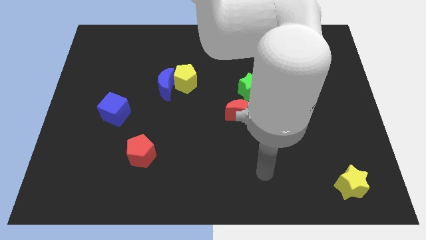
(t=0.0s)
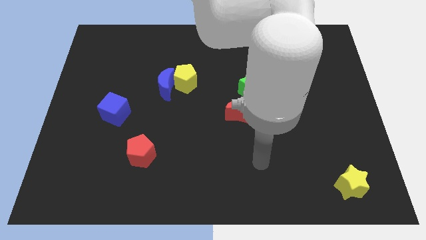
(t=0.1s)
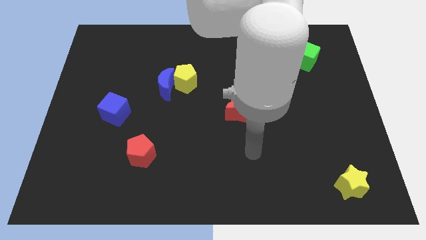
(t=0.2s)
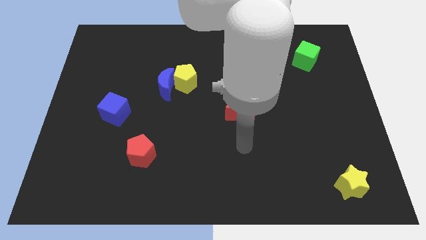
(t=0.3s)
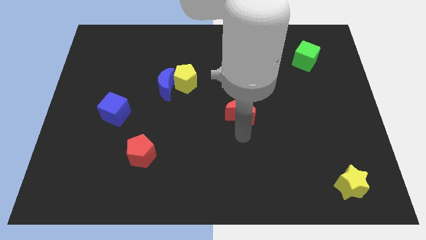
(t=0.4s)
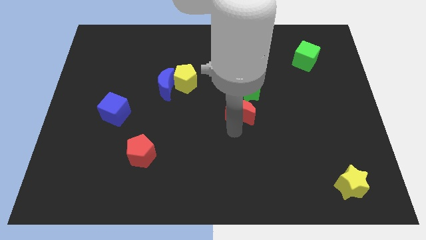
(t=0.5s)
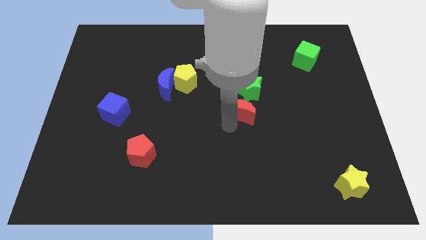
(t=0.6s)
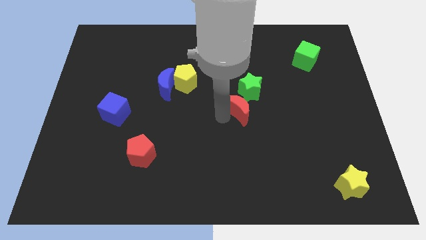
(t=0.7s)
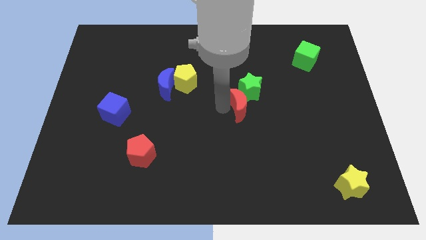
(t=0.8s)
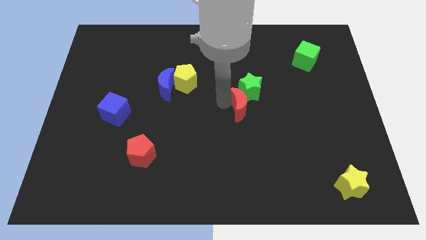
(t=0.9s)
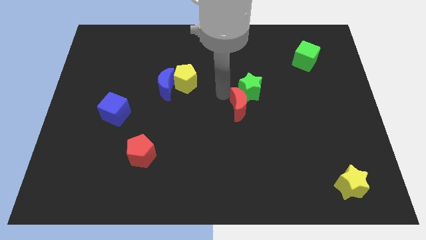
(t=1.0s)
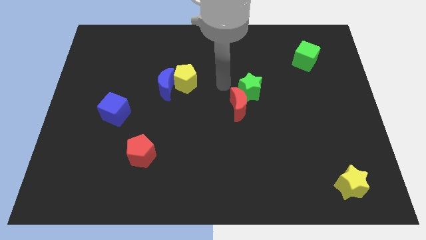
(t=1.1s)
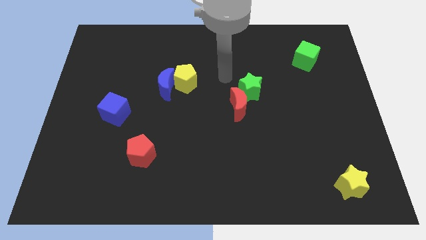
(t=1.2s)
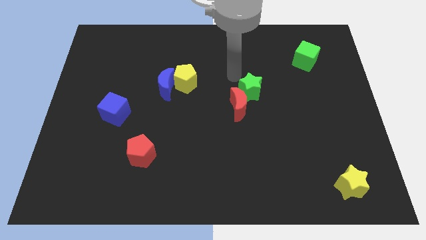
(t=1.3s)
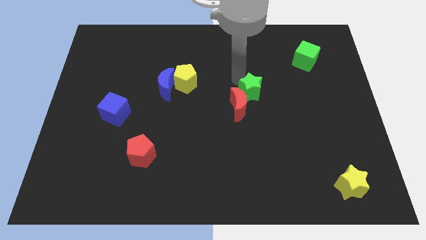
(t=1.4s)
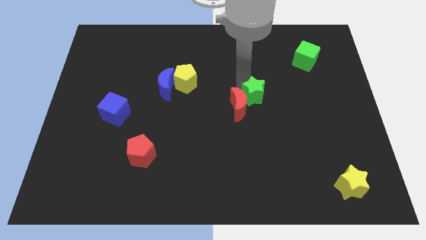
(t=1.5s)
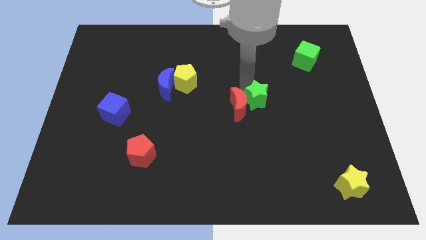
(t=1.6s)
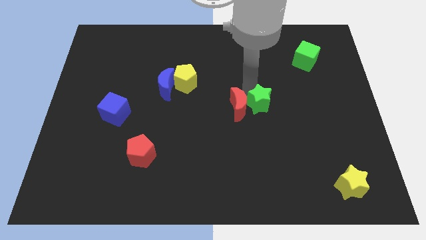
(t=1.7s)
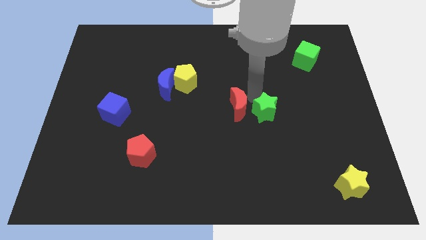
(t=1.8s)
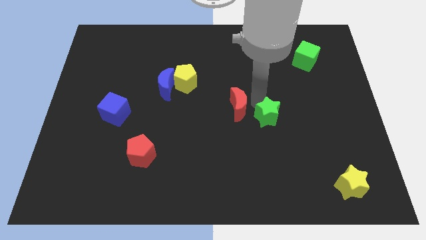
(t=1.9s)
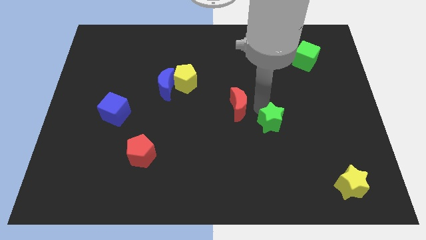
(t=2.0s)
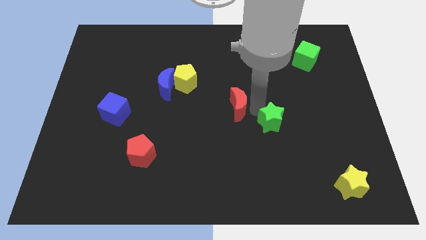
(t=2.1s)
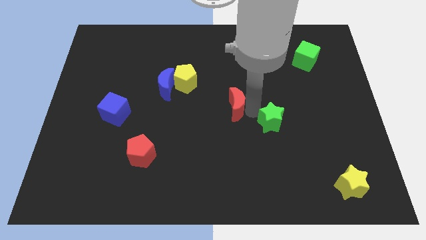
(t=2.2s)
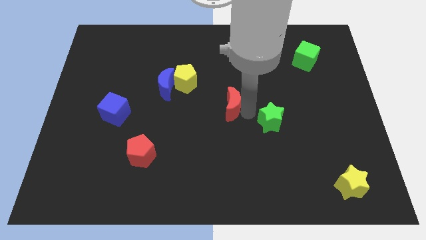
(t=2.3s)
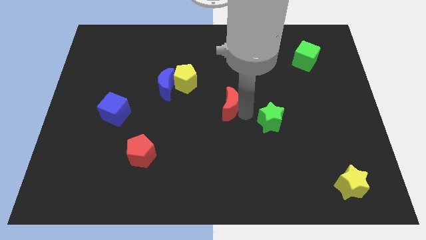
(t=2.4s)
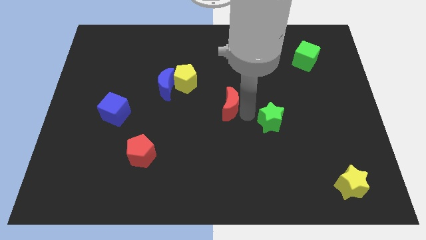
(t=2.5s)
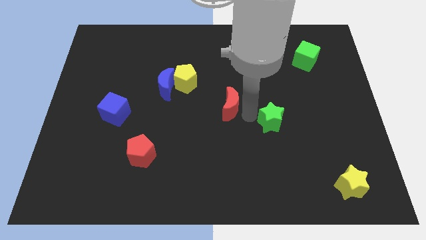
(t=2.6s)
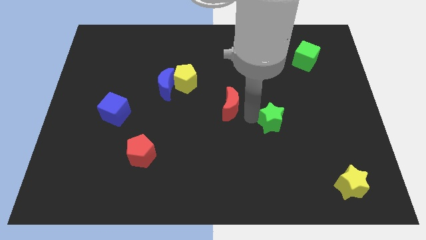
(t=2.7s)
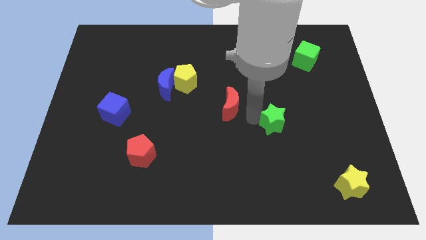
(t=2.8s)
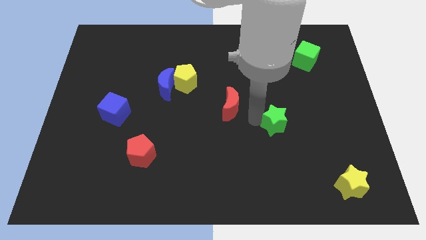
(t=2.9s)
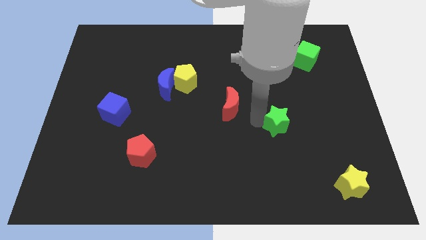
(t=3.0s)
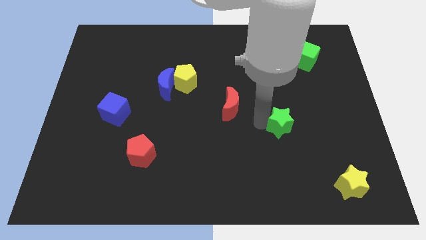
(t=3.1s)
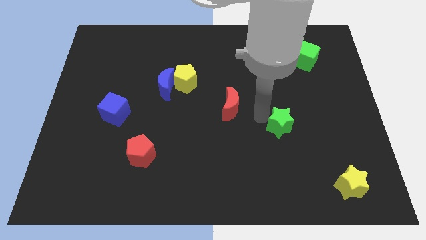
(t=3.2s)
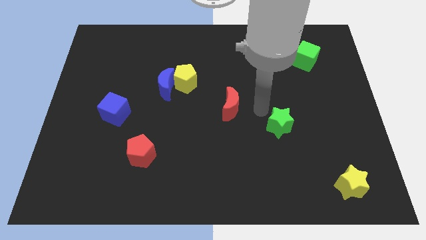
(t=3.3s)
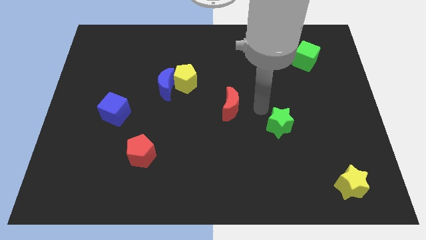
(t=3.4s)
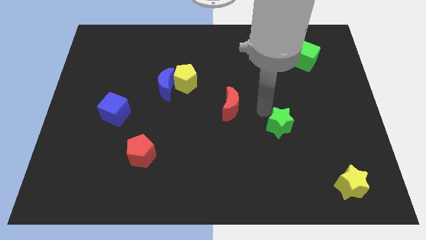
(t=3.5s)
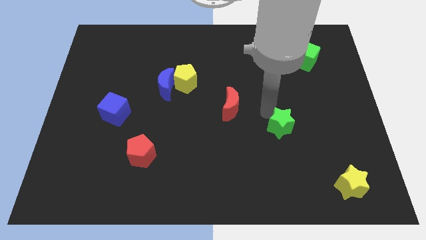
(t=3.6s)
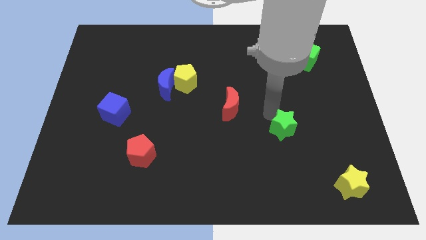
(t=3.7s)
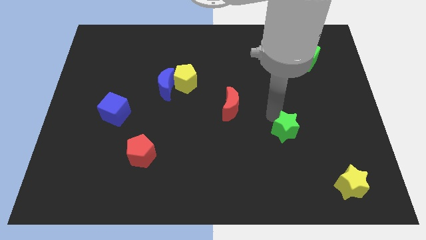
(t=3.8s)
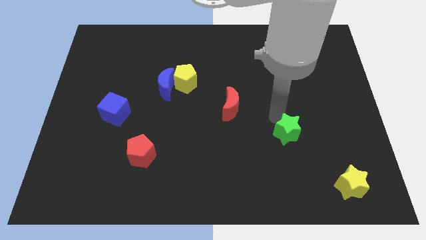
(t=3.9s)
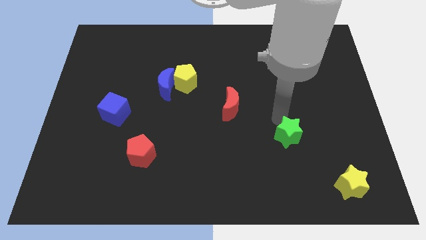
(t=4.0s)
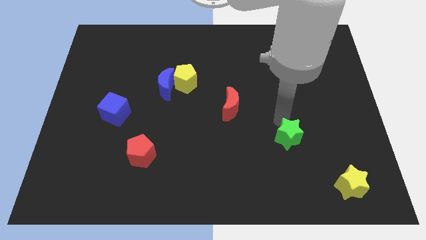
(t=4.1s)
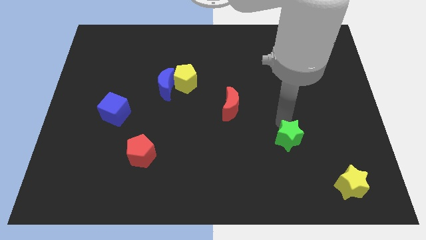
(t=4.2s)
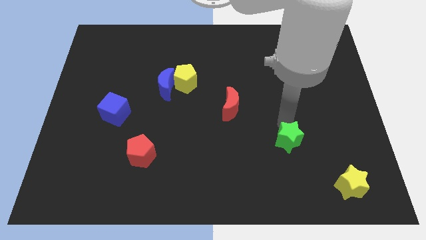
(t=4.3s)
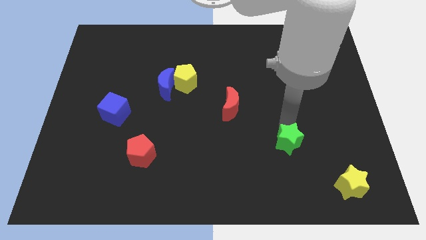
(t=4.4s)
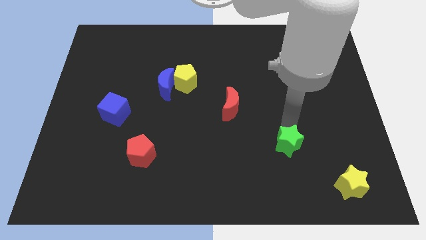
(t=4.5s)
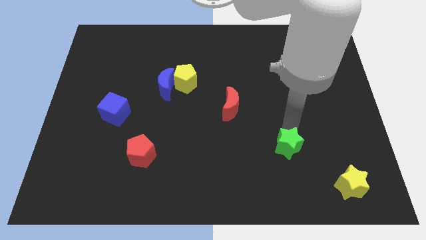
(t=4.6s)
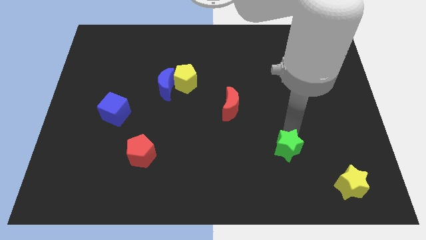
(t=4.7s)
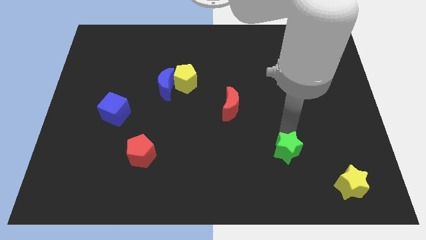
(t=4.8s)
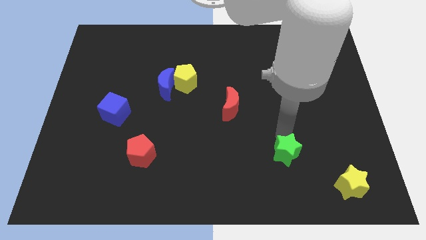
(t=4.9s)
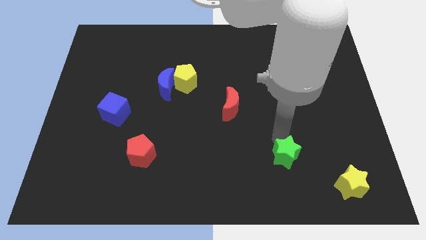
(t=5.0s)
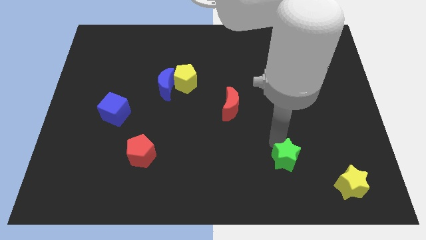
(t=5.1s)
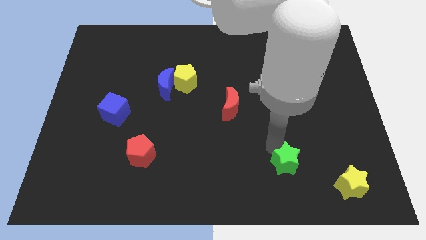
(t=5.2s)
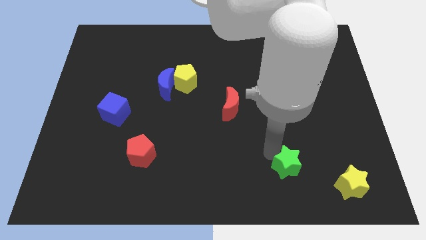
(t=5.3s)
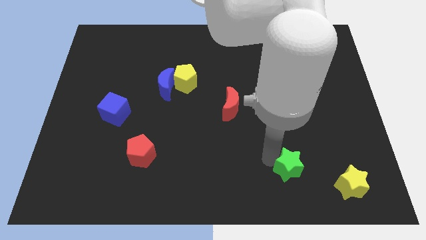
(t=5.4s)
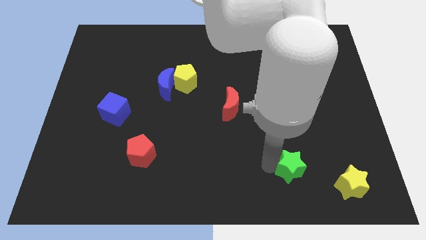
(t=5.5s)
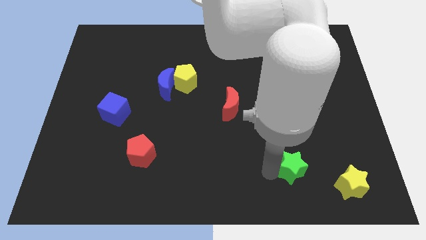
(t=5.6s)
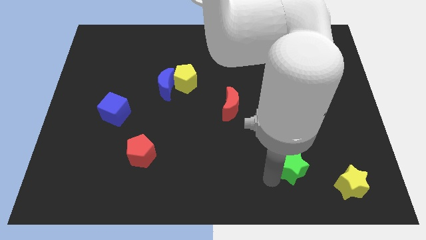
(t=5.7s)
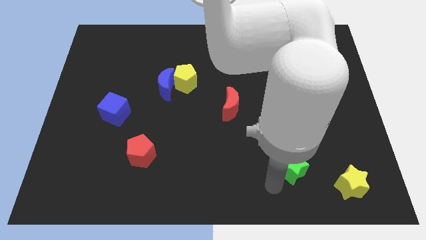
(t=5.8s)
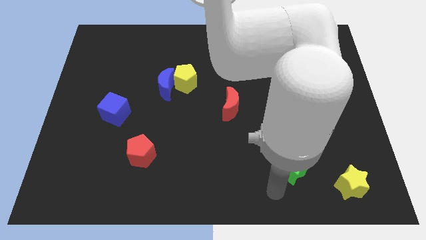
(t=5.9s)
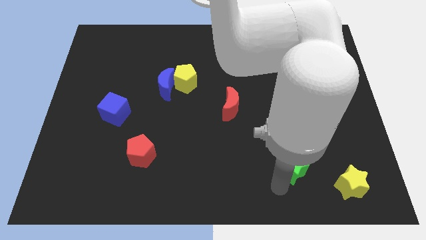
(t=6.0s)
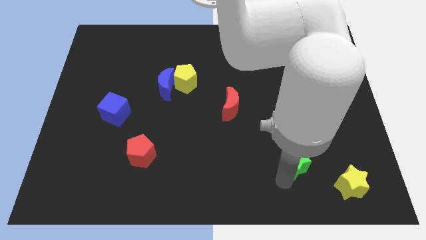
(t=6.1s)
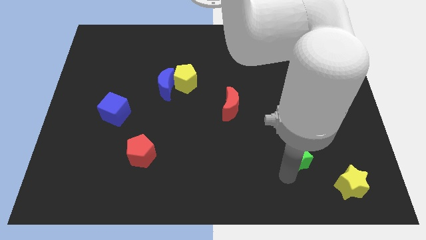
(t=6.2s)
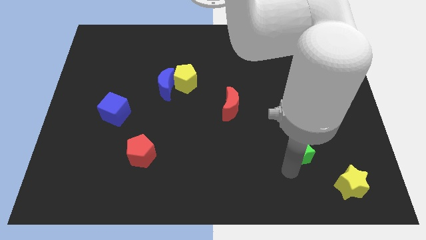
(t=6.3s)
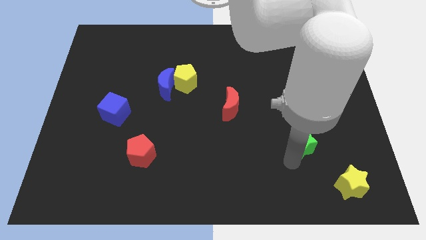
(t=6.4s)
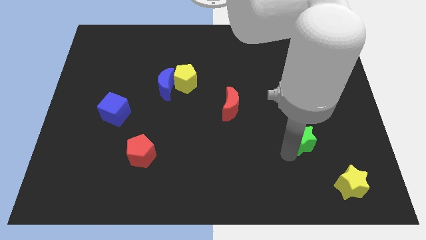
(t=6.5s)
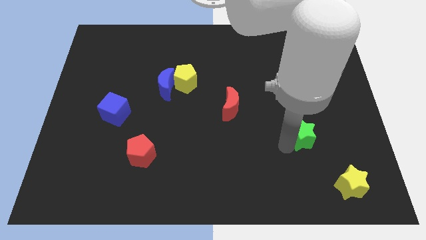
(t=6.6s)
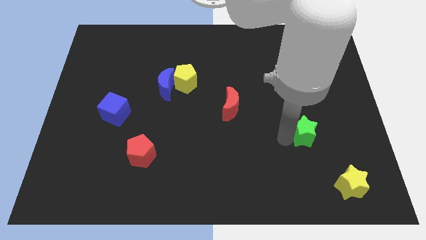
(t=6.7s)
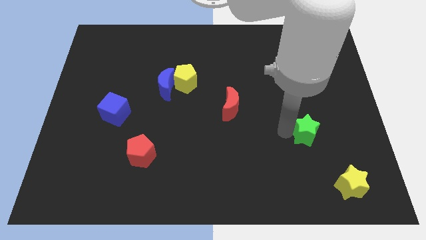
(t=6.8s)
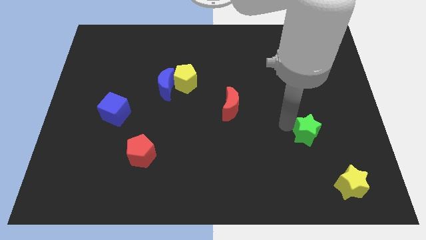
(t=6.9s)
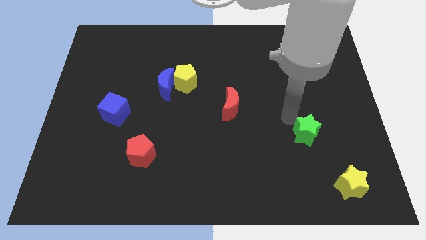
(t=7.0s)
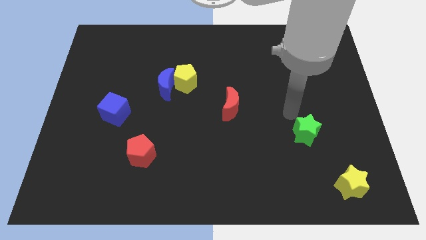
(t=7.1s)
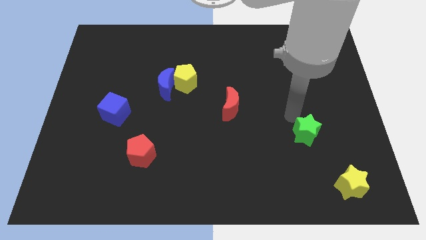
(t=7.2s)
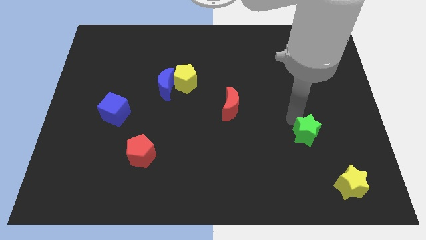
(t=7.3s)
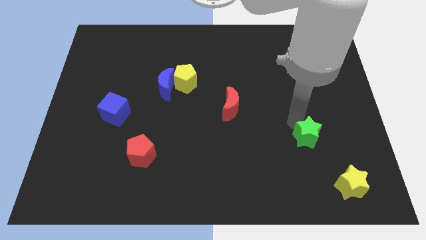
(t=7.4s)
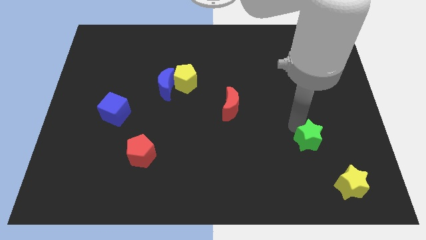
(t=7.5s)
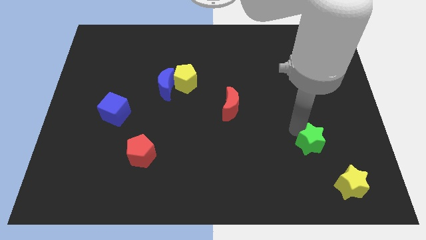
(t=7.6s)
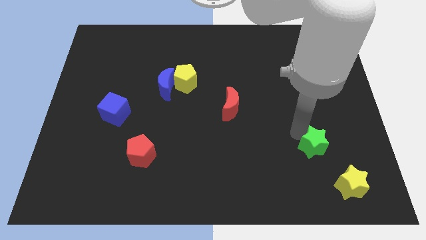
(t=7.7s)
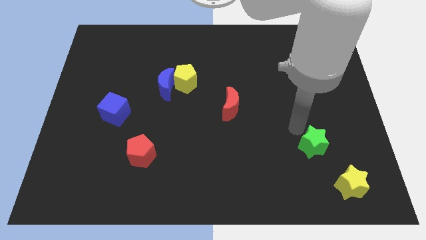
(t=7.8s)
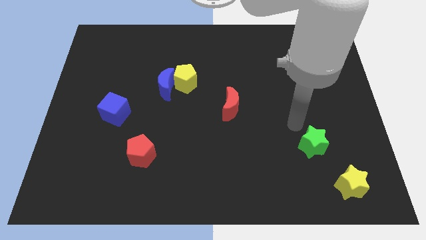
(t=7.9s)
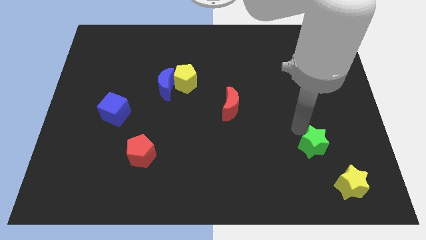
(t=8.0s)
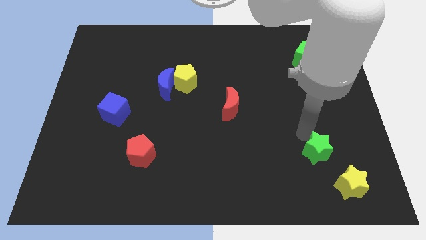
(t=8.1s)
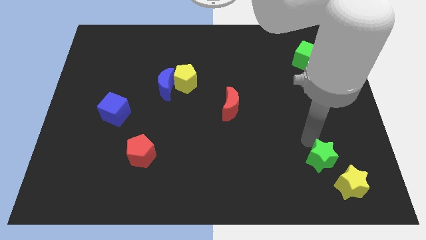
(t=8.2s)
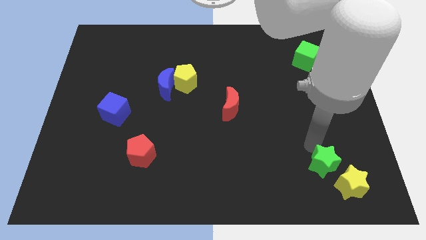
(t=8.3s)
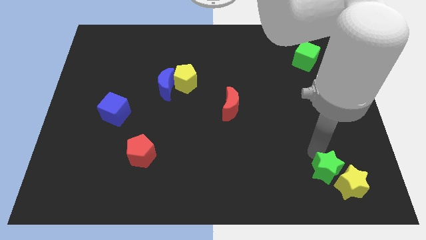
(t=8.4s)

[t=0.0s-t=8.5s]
put the green star towards the yellow star
